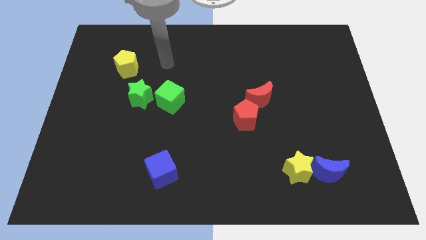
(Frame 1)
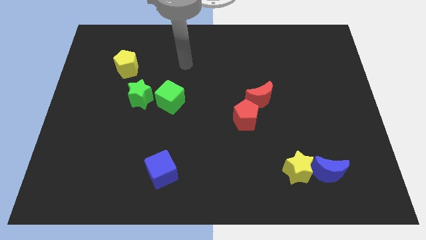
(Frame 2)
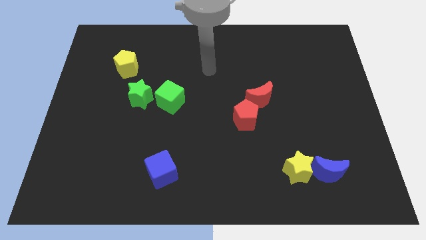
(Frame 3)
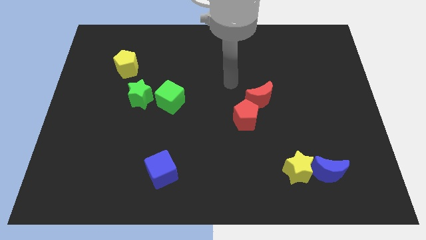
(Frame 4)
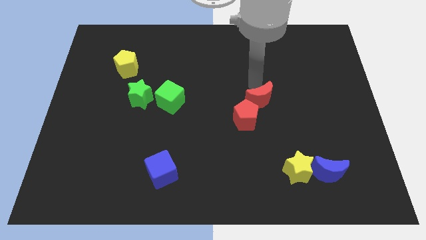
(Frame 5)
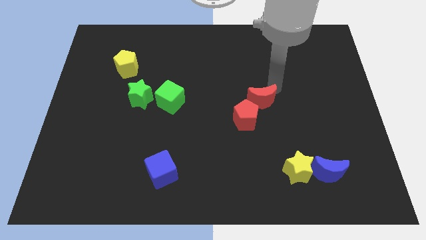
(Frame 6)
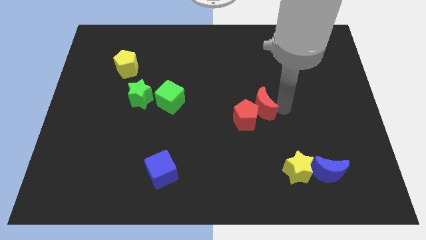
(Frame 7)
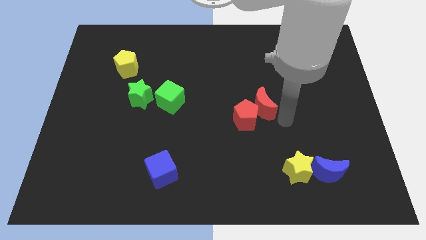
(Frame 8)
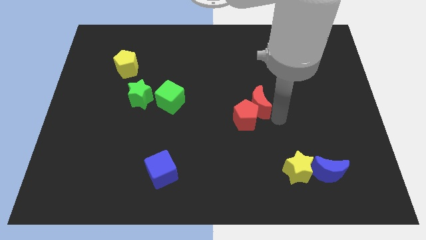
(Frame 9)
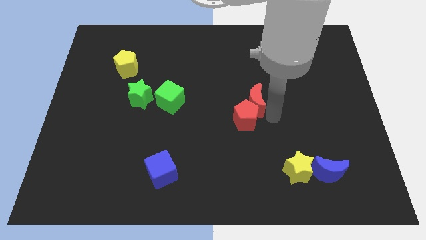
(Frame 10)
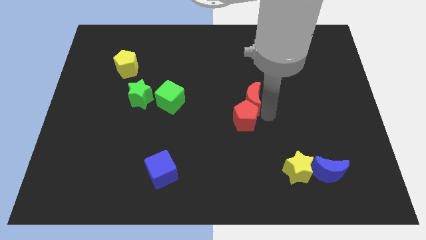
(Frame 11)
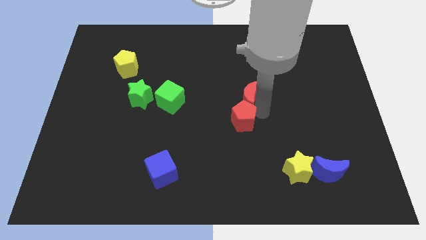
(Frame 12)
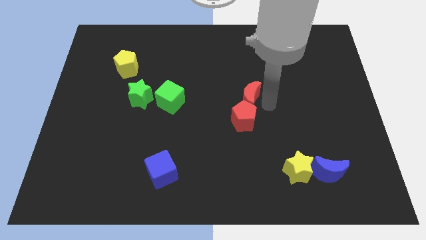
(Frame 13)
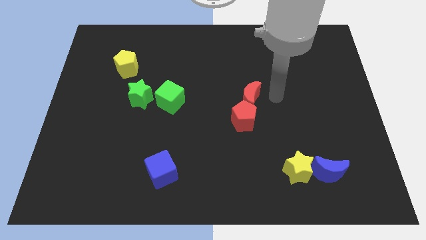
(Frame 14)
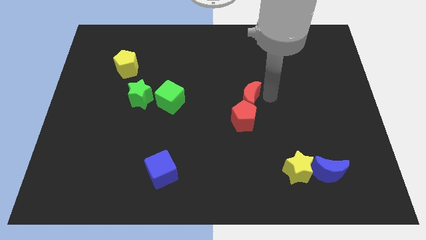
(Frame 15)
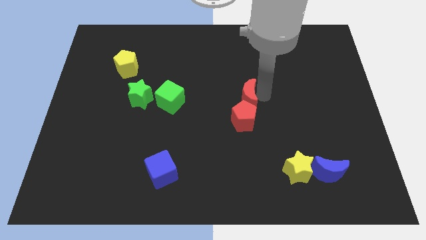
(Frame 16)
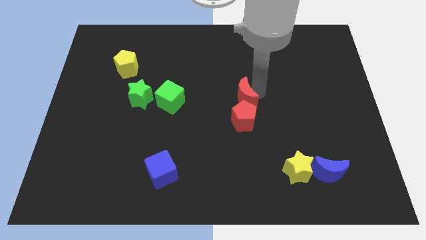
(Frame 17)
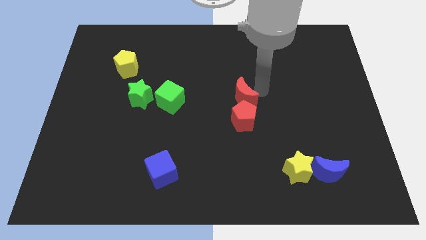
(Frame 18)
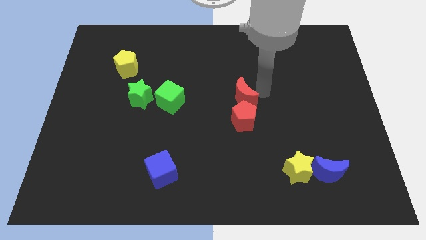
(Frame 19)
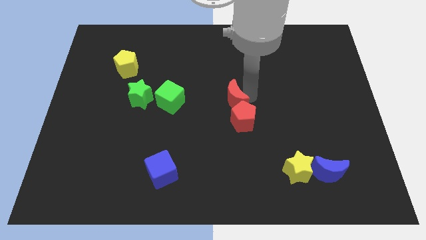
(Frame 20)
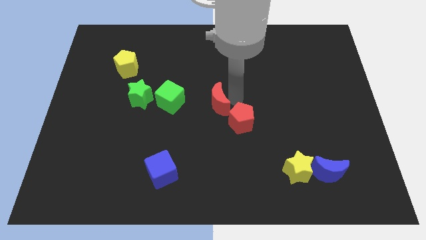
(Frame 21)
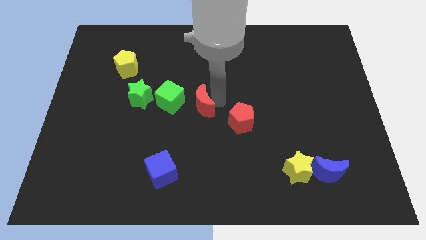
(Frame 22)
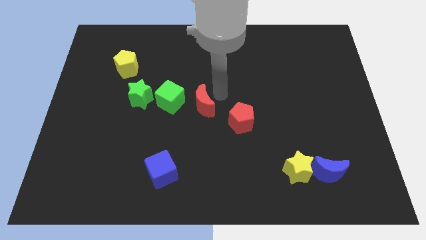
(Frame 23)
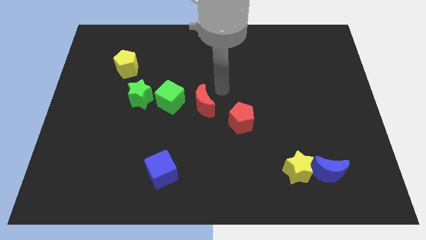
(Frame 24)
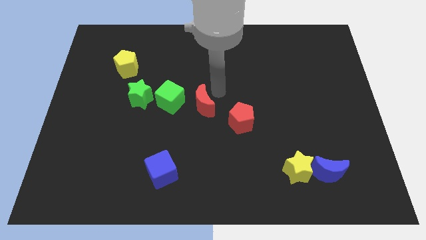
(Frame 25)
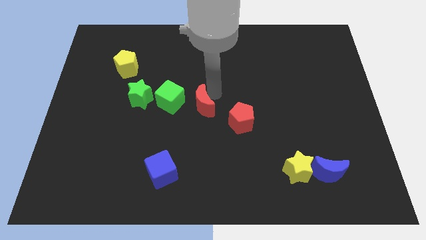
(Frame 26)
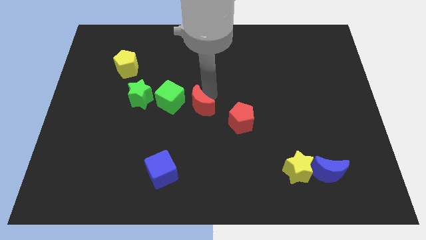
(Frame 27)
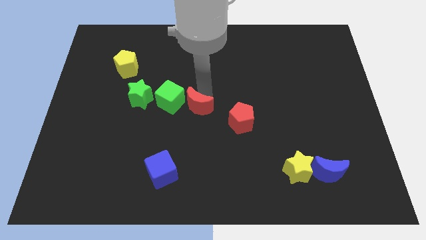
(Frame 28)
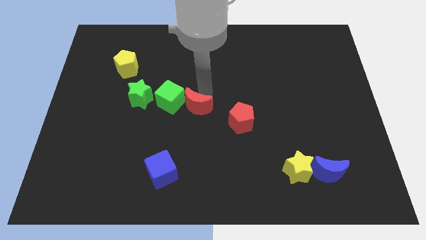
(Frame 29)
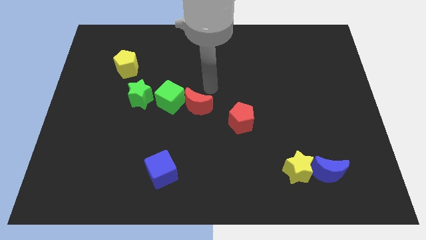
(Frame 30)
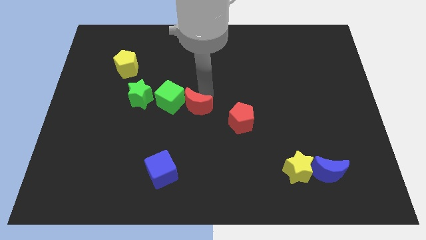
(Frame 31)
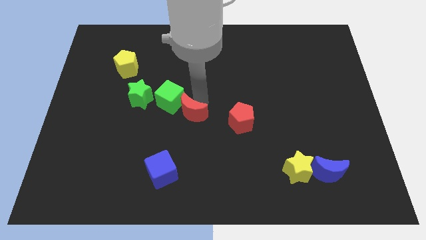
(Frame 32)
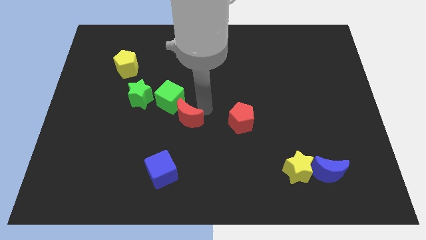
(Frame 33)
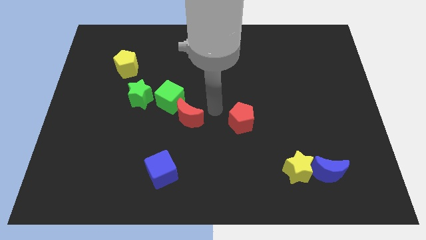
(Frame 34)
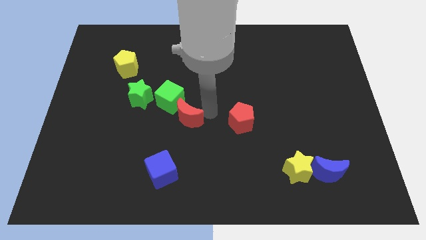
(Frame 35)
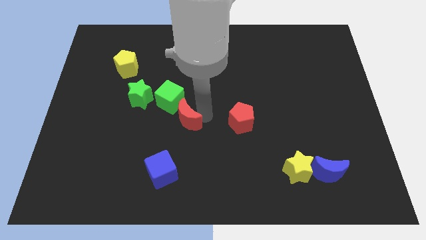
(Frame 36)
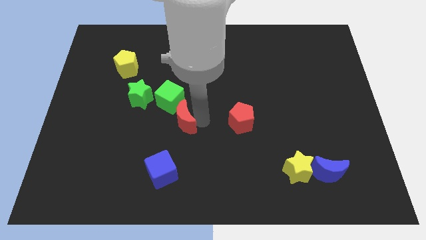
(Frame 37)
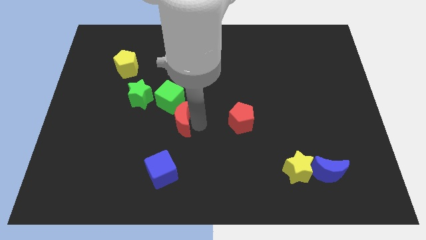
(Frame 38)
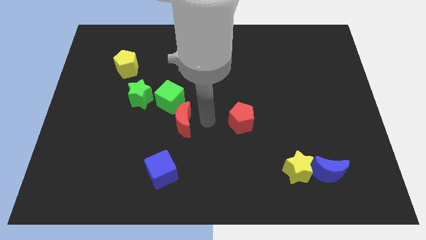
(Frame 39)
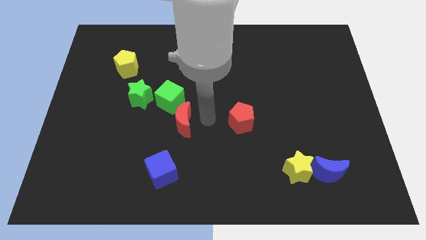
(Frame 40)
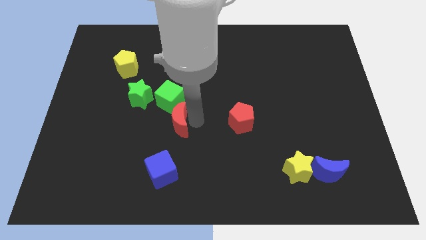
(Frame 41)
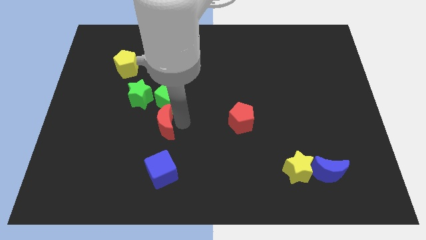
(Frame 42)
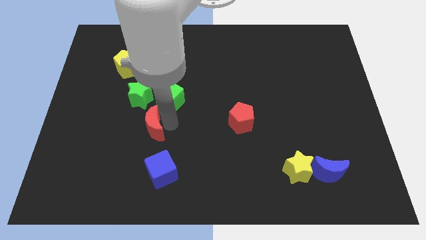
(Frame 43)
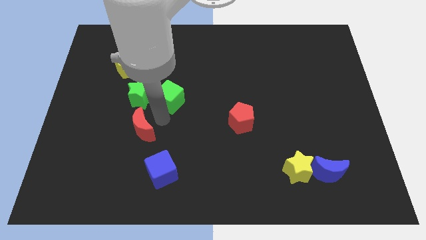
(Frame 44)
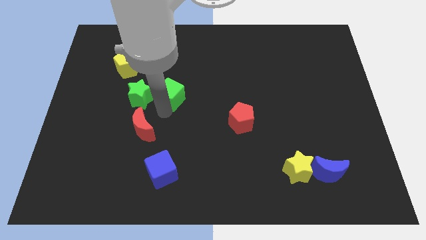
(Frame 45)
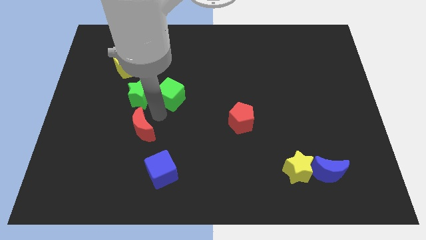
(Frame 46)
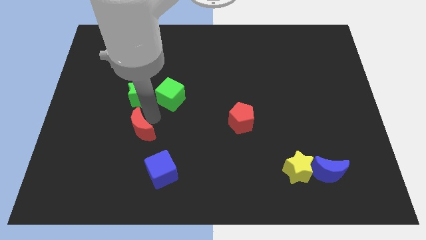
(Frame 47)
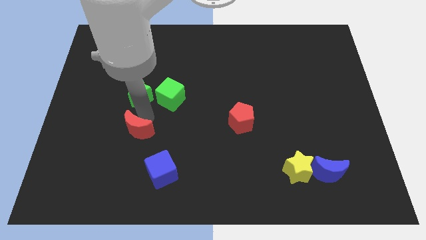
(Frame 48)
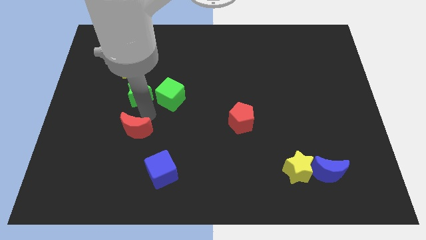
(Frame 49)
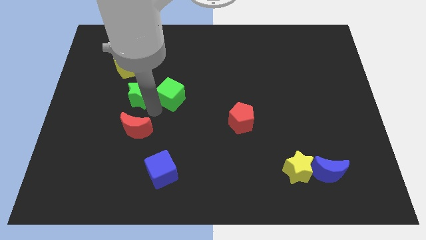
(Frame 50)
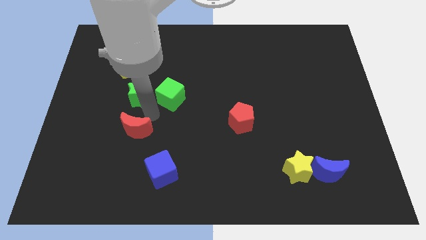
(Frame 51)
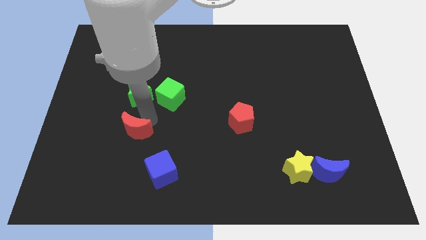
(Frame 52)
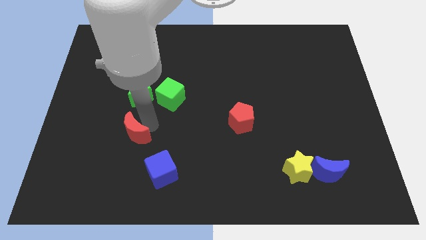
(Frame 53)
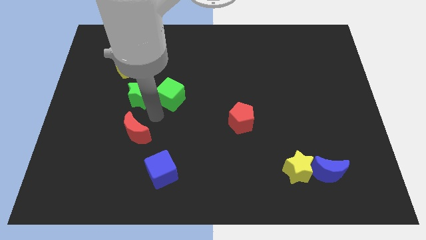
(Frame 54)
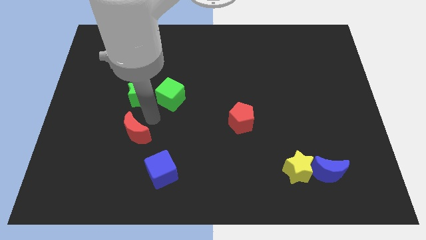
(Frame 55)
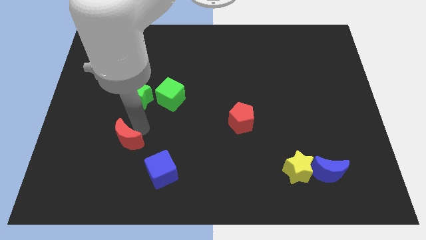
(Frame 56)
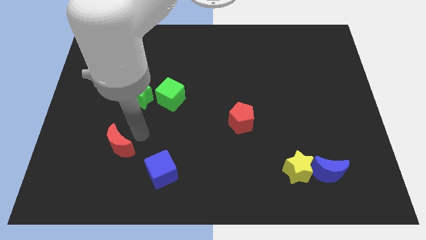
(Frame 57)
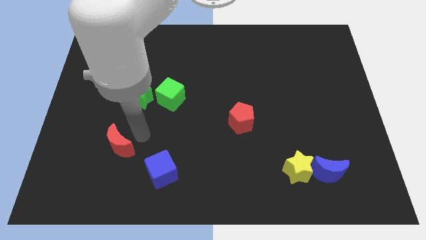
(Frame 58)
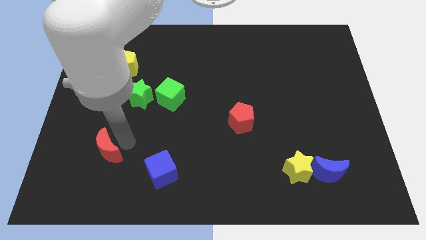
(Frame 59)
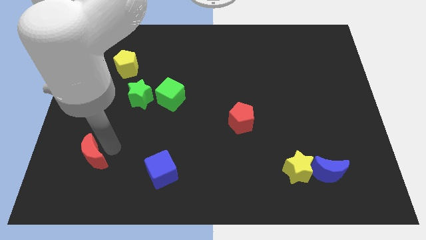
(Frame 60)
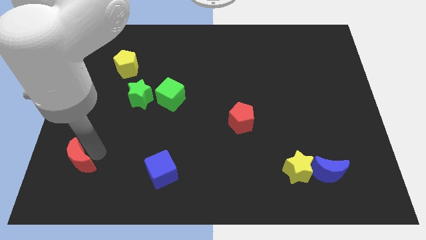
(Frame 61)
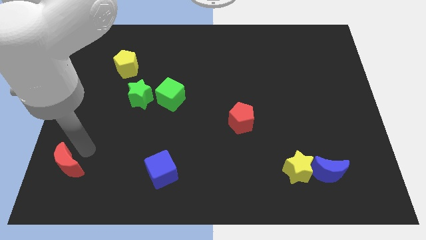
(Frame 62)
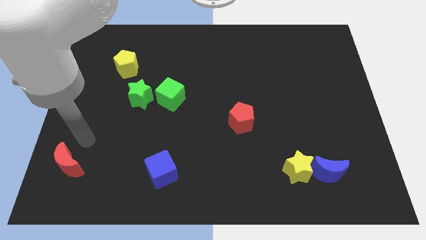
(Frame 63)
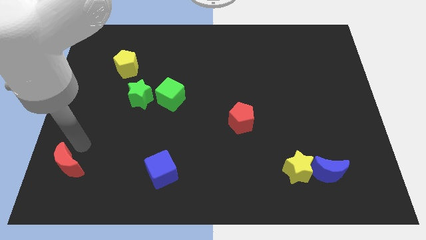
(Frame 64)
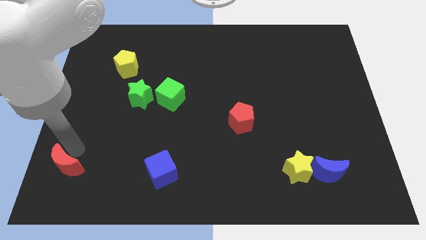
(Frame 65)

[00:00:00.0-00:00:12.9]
move the red moon to the bottom left of the board
